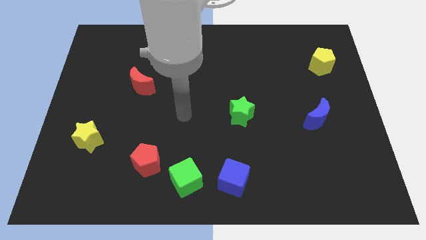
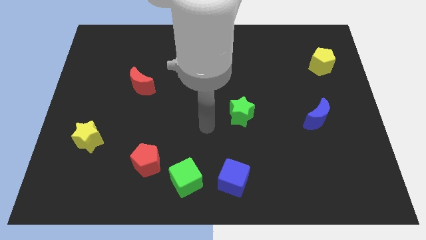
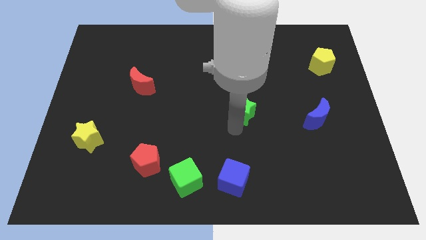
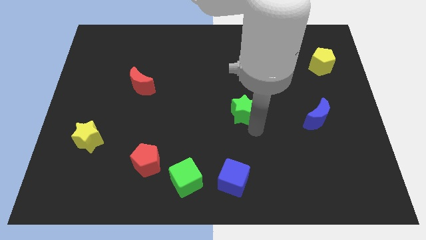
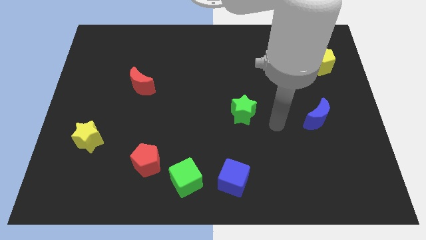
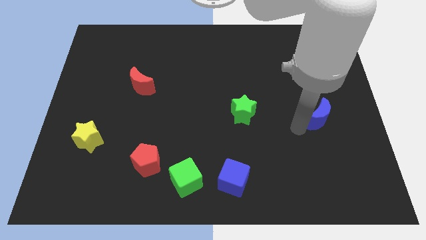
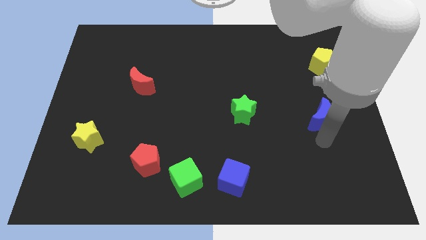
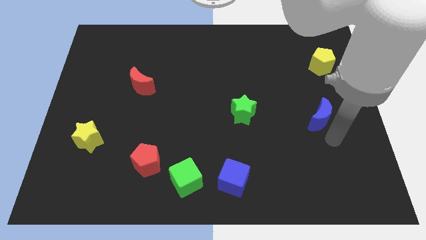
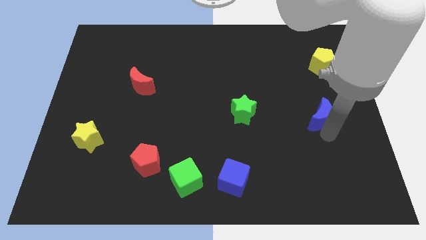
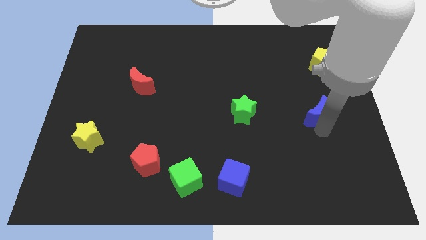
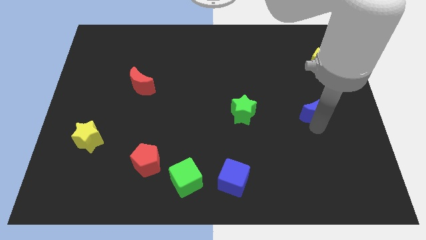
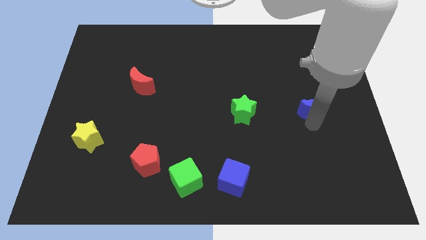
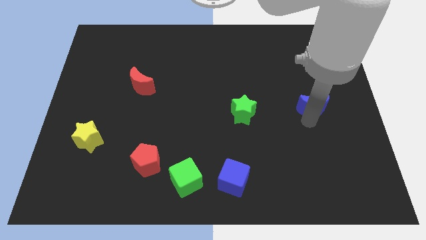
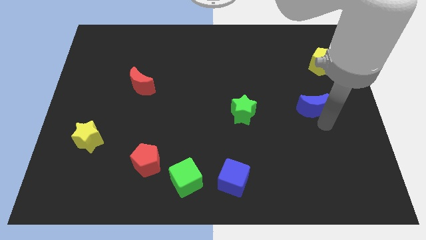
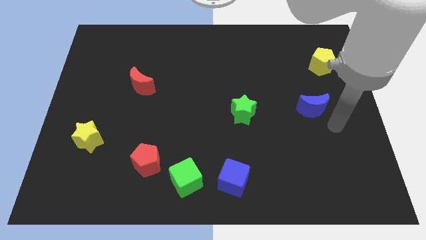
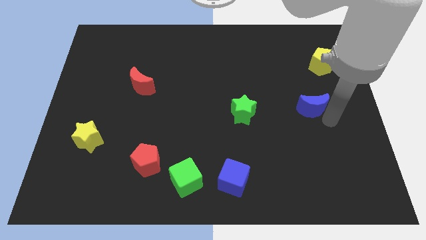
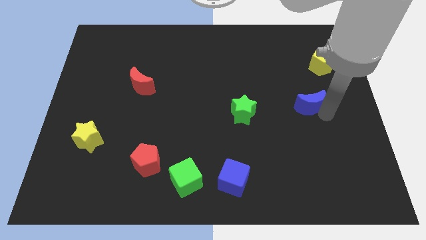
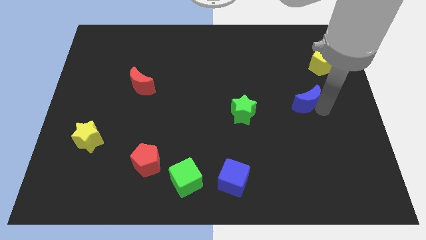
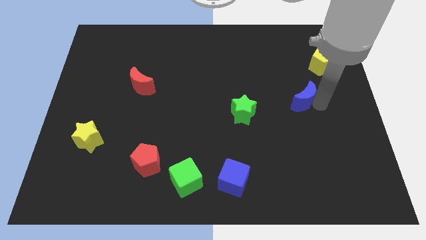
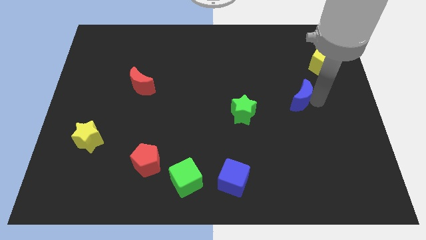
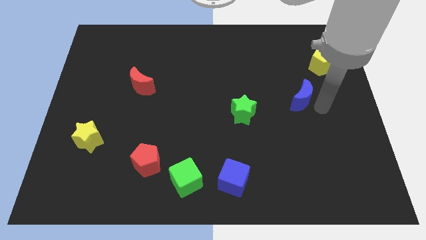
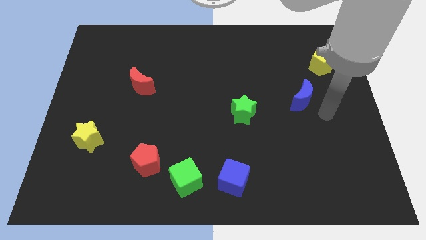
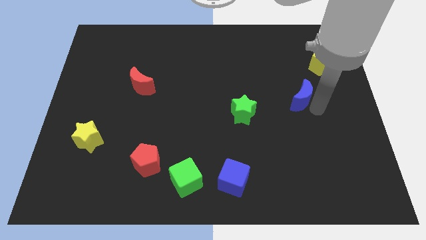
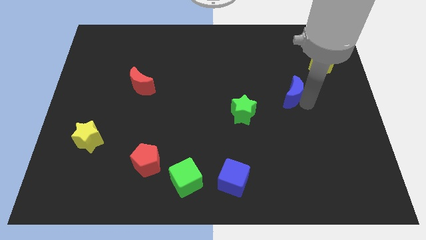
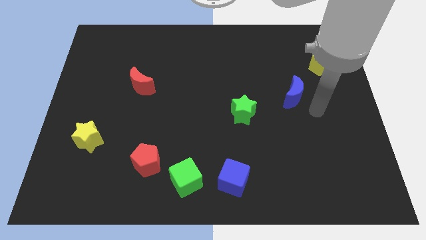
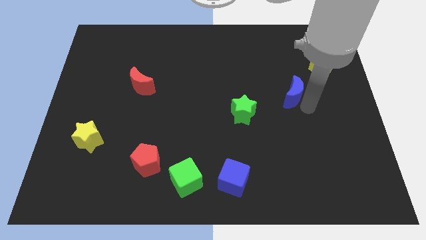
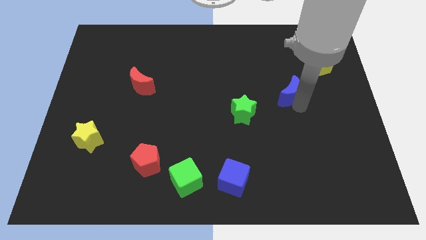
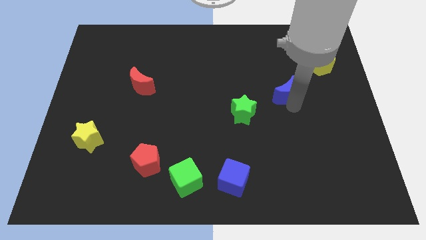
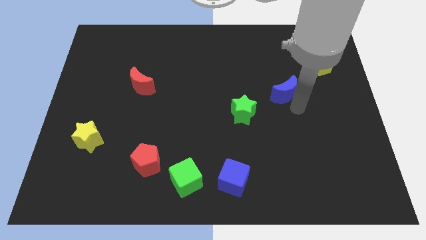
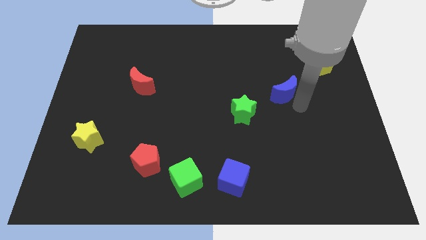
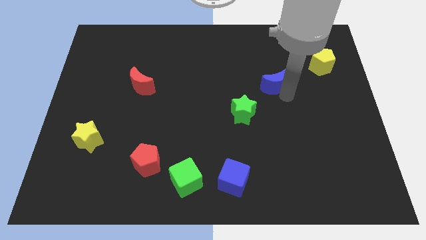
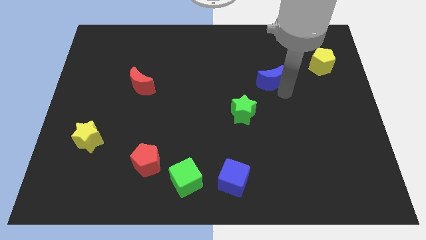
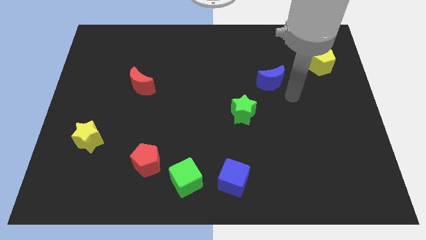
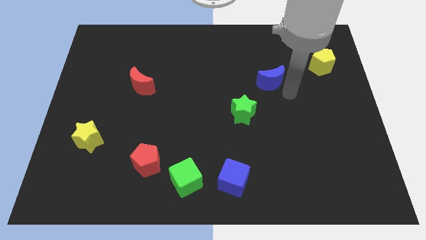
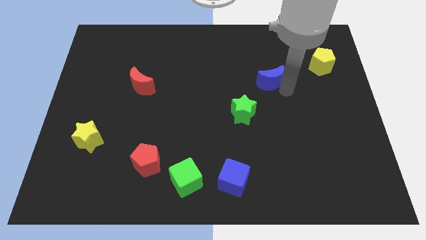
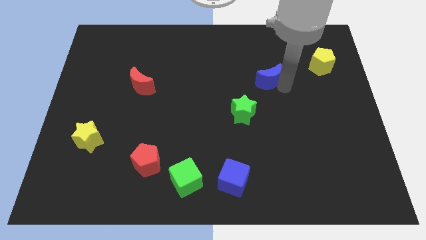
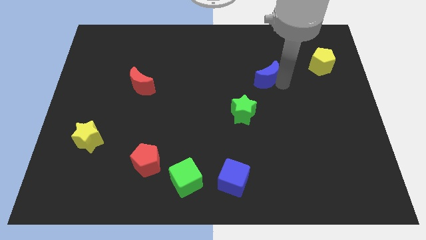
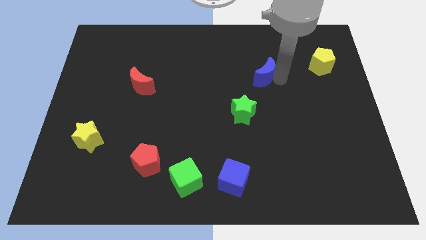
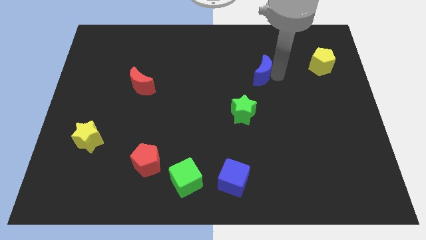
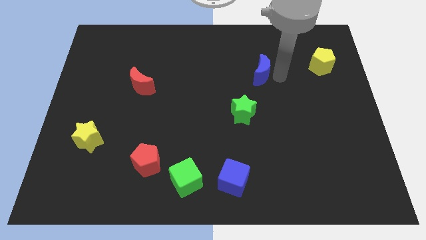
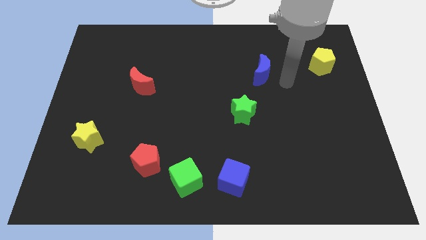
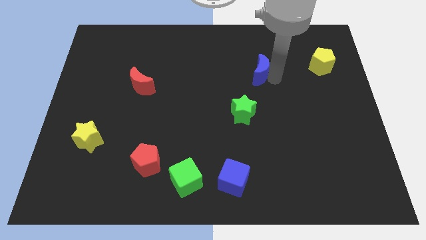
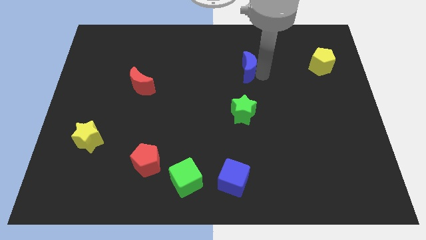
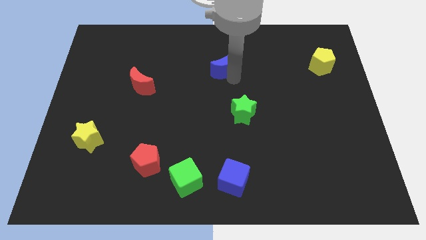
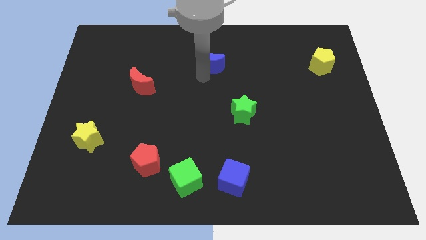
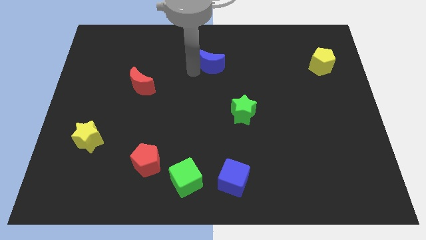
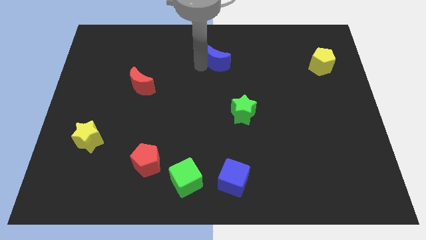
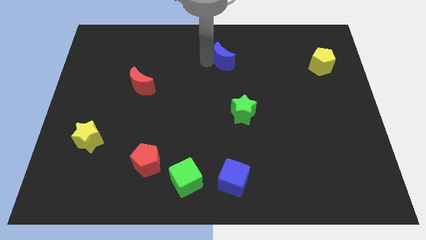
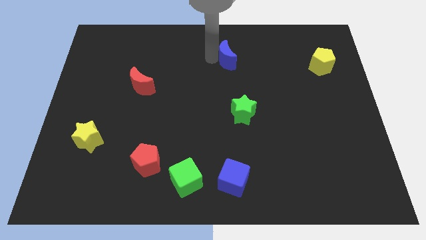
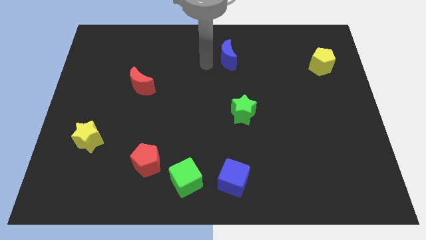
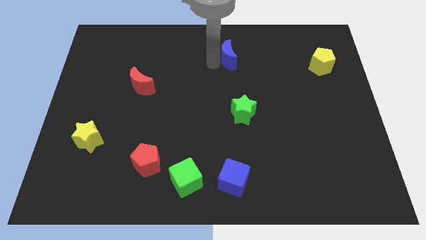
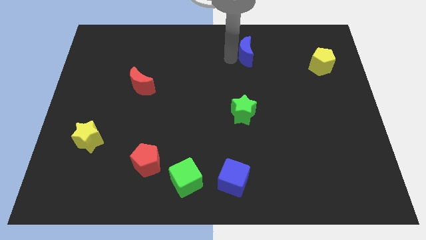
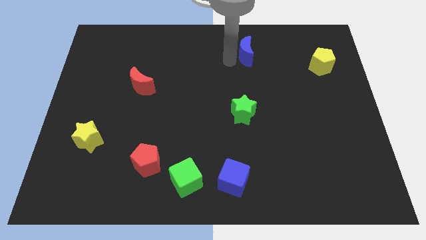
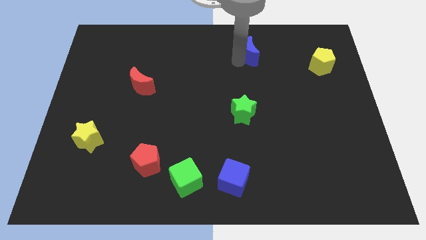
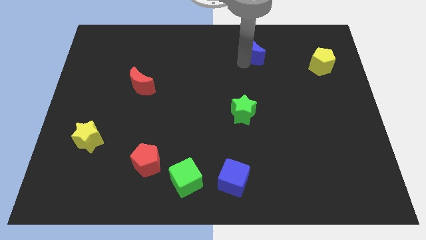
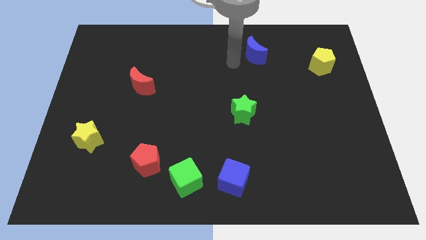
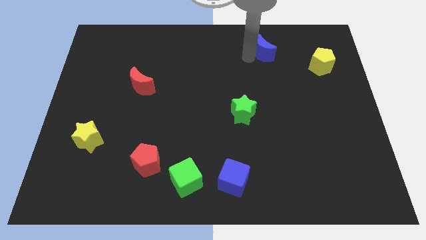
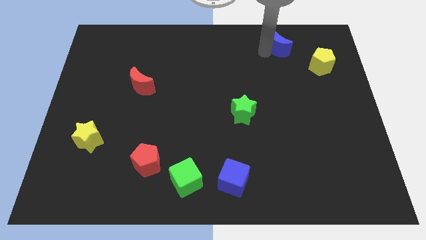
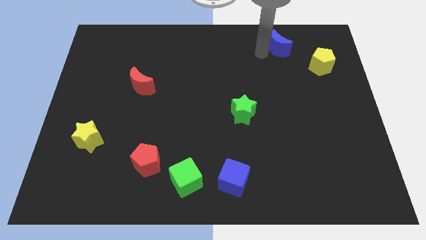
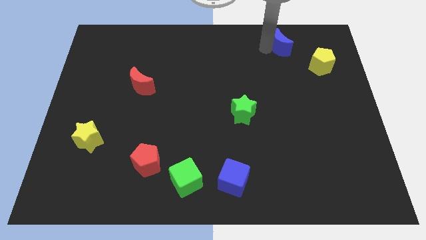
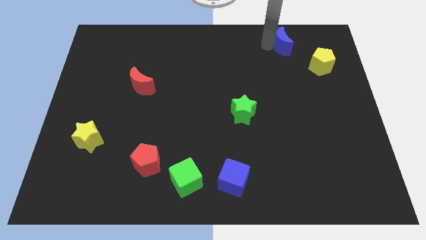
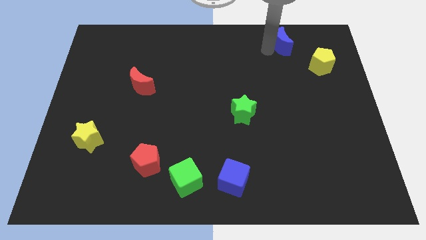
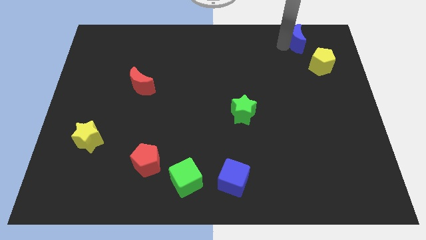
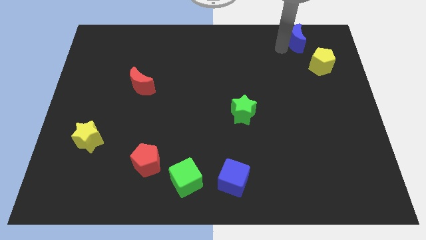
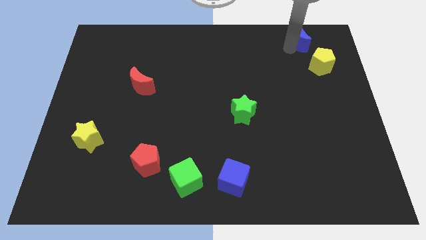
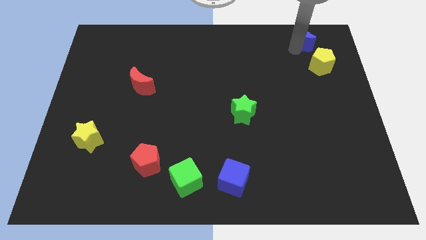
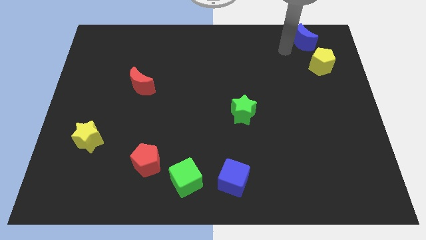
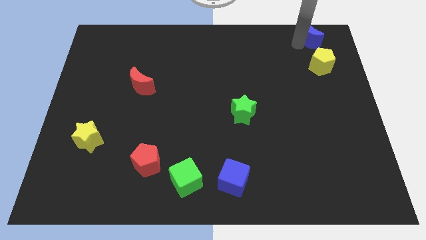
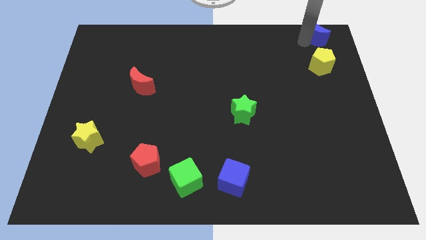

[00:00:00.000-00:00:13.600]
put the blue moon to the upper right corner
